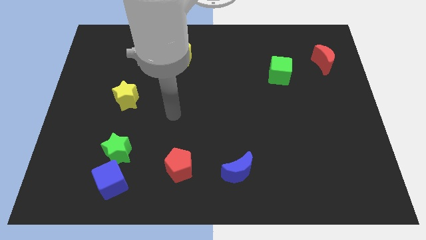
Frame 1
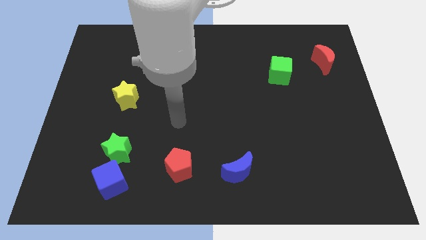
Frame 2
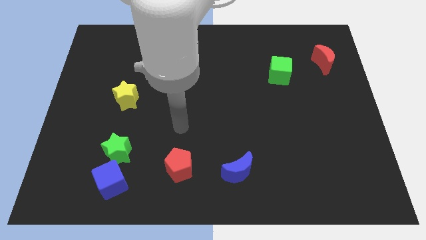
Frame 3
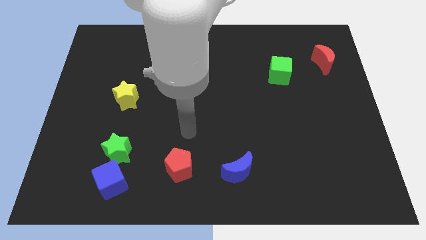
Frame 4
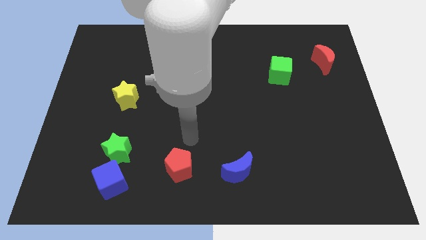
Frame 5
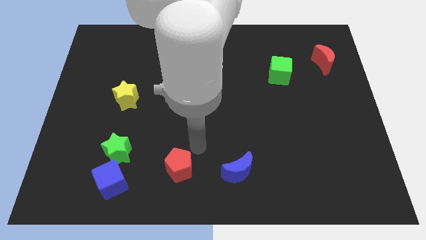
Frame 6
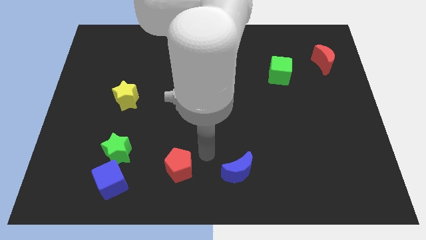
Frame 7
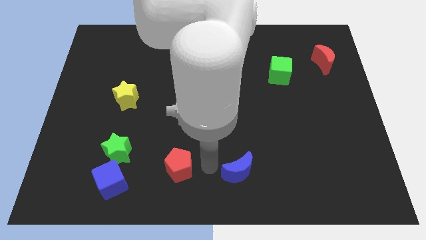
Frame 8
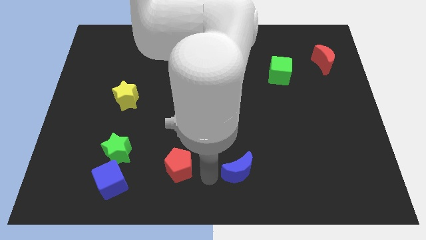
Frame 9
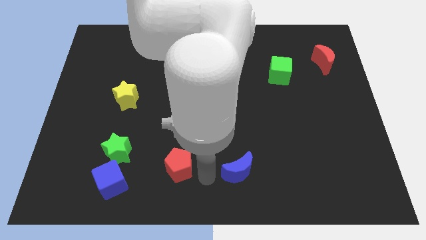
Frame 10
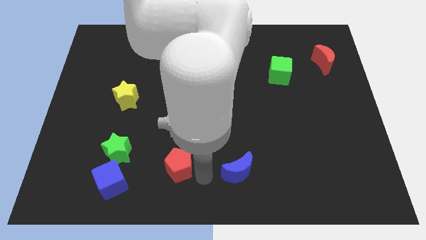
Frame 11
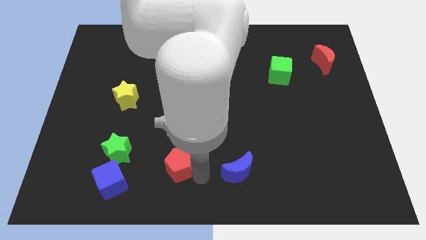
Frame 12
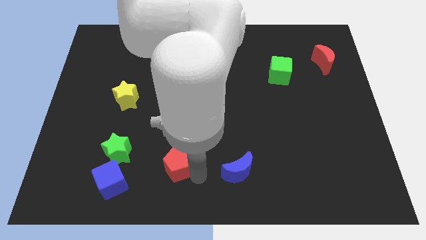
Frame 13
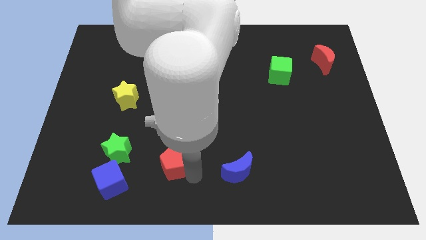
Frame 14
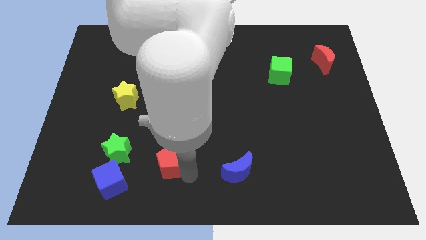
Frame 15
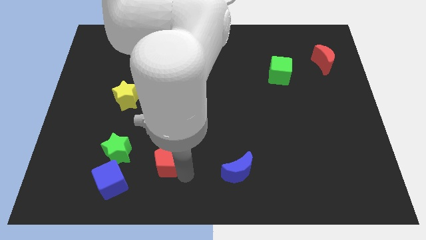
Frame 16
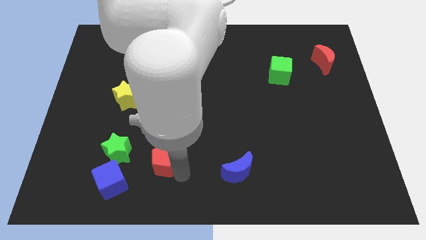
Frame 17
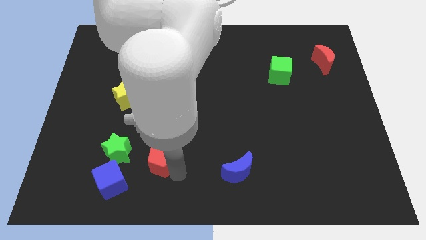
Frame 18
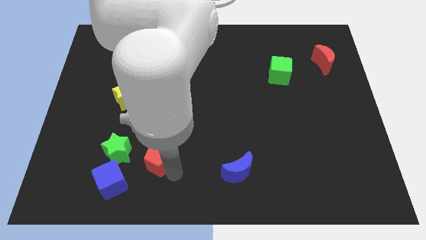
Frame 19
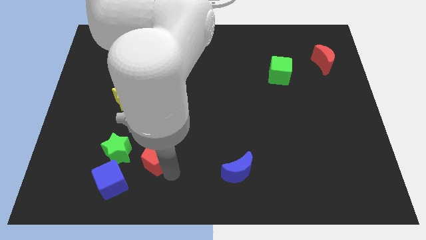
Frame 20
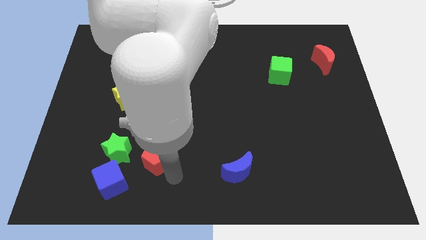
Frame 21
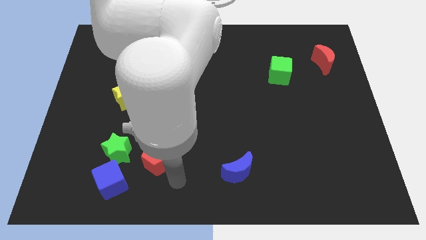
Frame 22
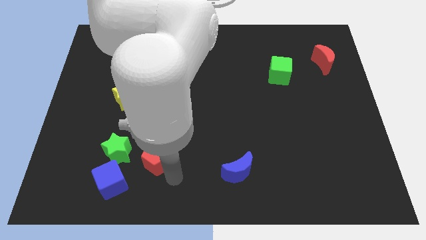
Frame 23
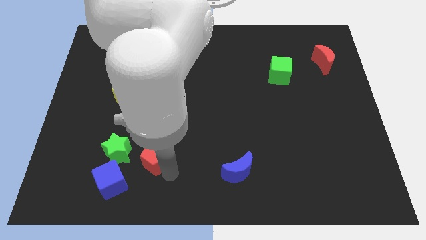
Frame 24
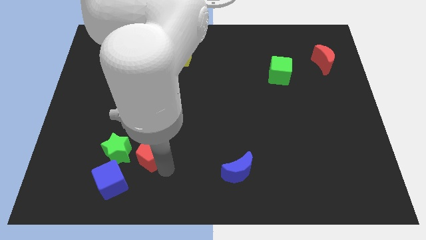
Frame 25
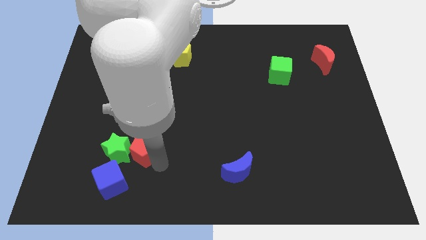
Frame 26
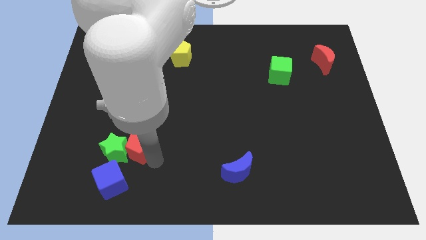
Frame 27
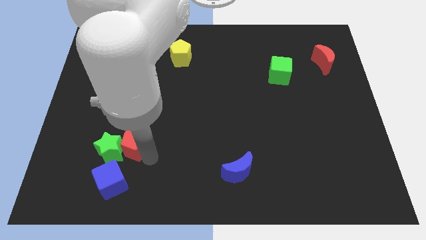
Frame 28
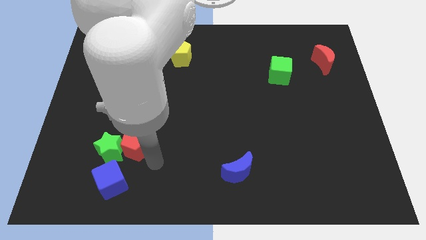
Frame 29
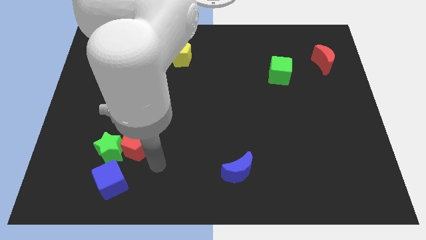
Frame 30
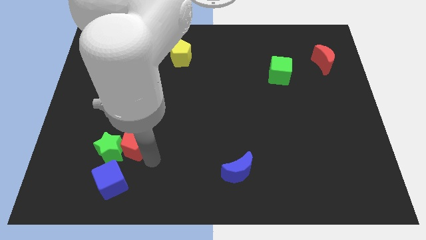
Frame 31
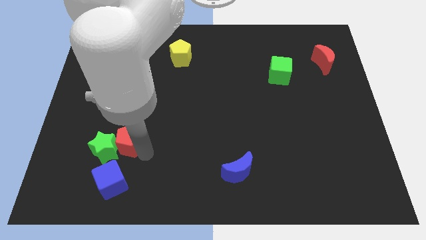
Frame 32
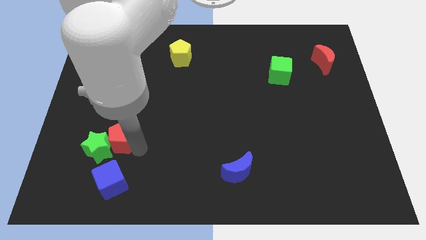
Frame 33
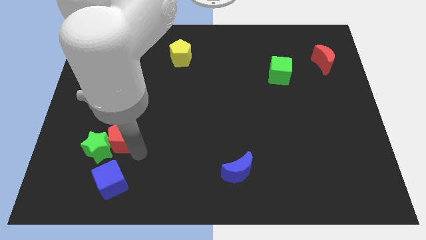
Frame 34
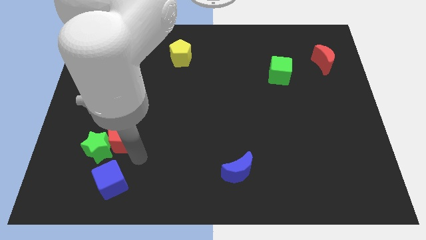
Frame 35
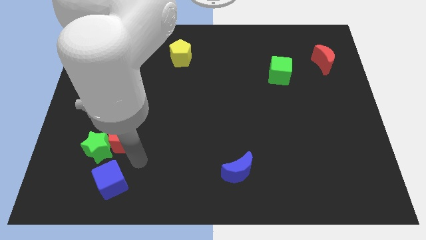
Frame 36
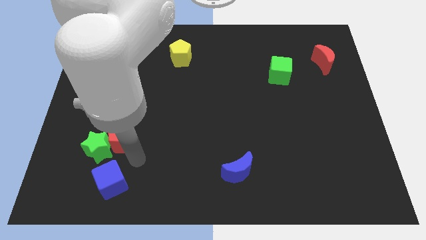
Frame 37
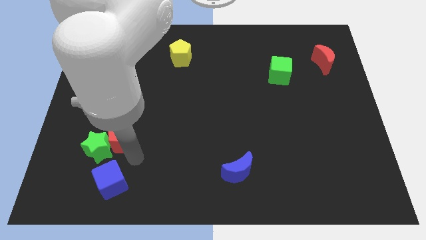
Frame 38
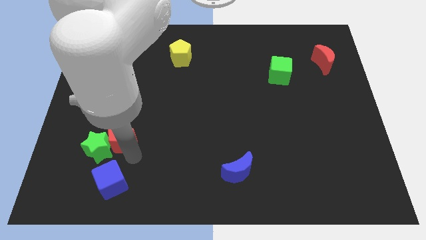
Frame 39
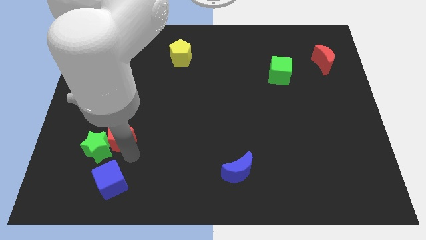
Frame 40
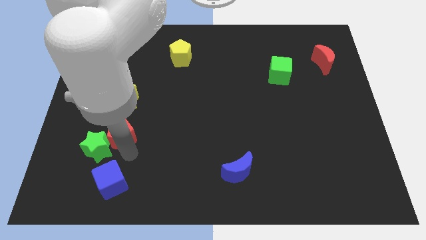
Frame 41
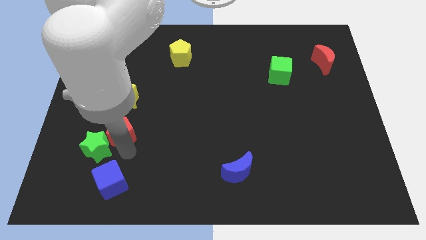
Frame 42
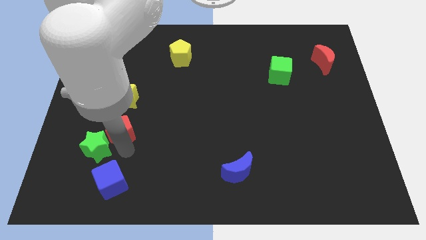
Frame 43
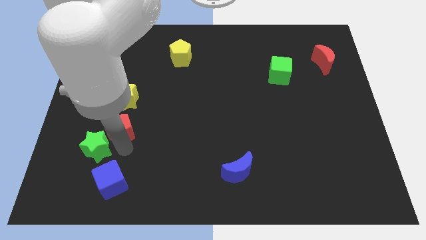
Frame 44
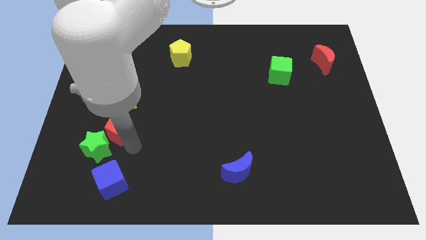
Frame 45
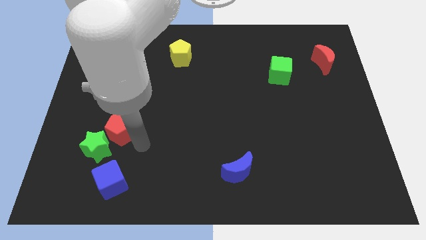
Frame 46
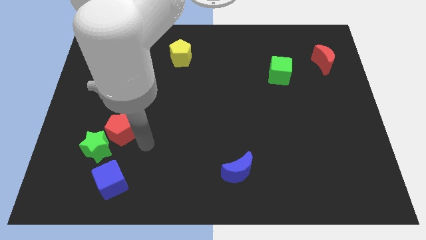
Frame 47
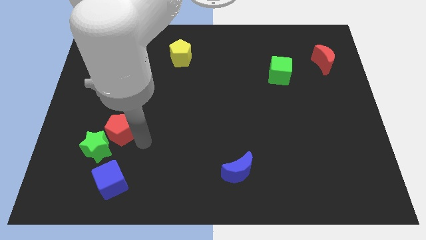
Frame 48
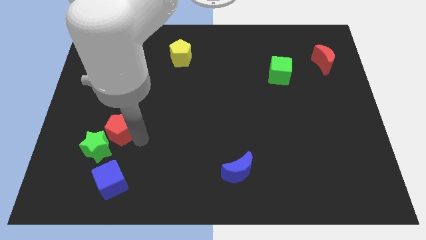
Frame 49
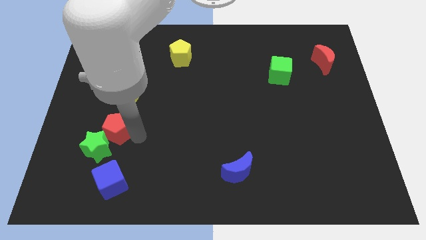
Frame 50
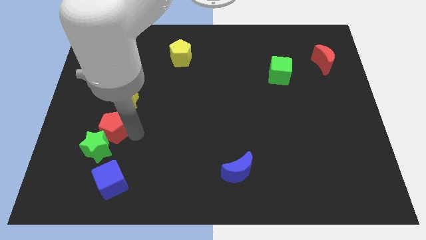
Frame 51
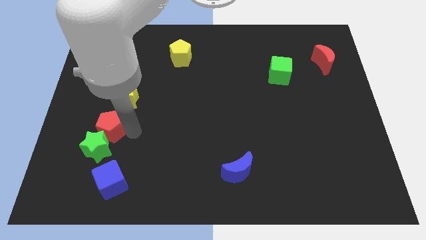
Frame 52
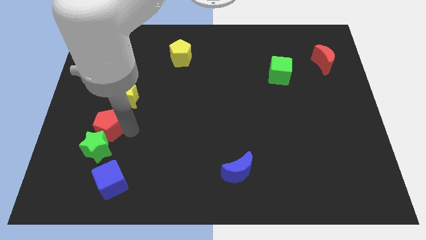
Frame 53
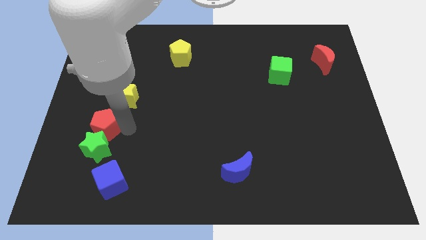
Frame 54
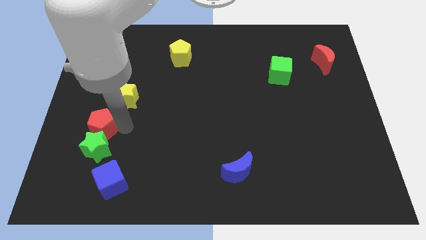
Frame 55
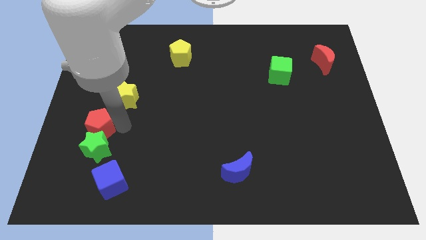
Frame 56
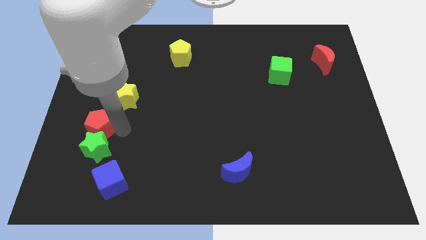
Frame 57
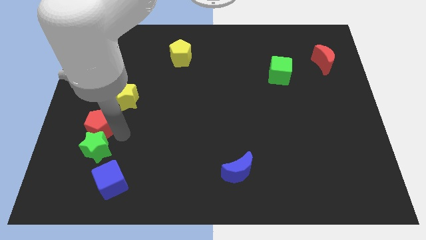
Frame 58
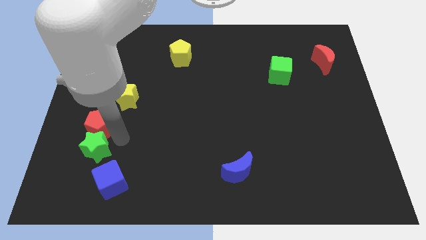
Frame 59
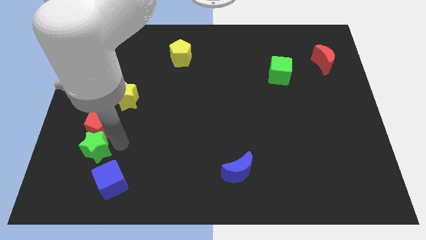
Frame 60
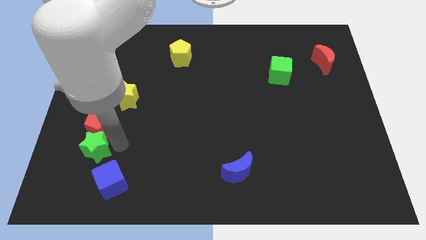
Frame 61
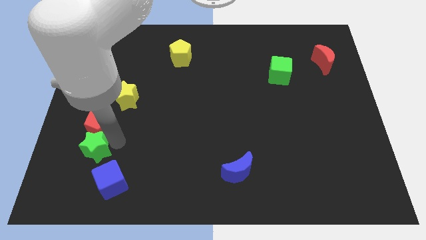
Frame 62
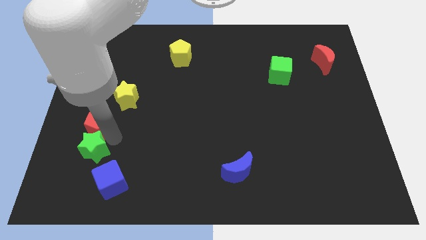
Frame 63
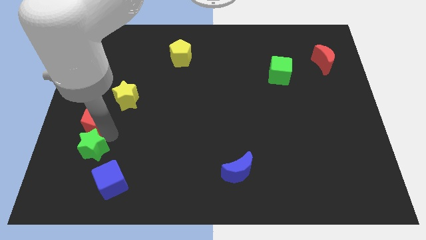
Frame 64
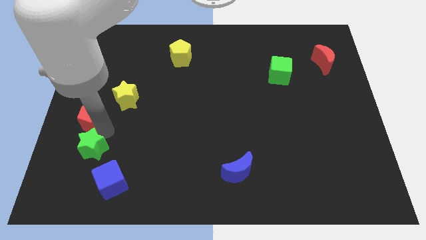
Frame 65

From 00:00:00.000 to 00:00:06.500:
push the red pentagon to the left side
